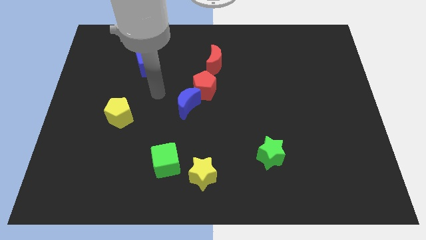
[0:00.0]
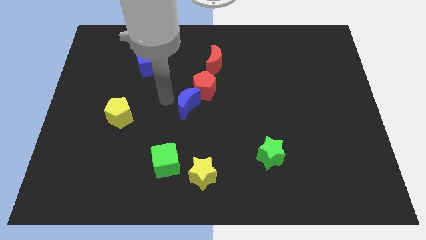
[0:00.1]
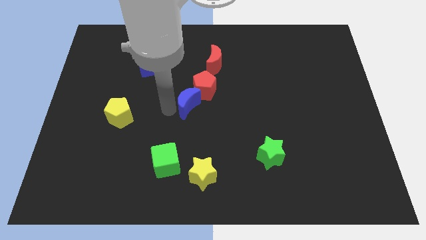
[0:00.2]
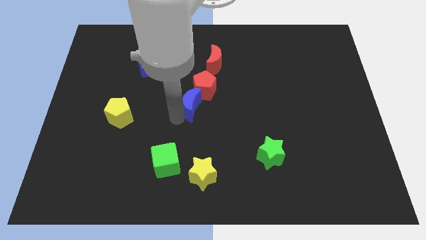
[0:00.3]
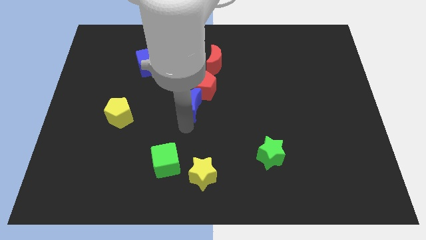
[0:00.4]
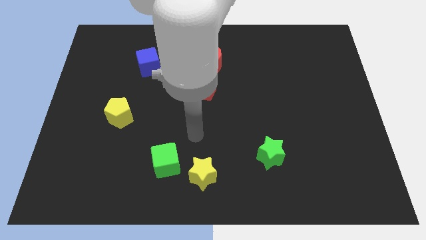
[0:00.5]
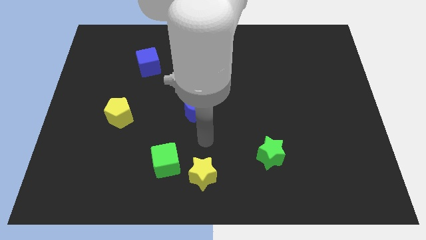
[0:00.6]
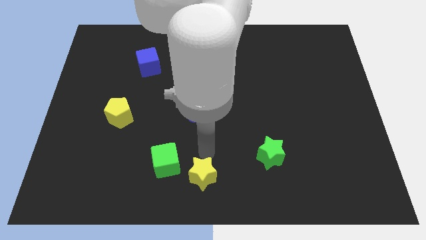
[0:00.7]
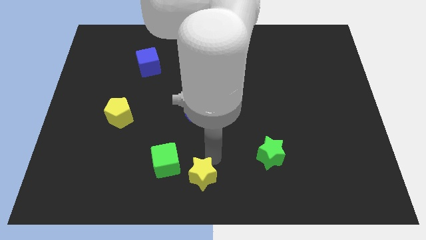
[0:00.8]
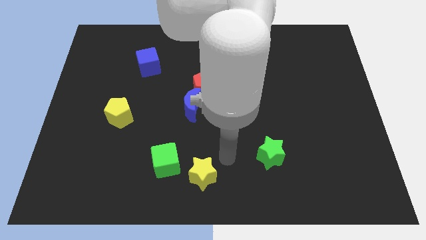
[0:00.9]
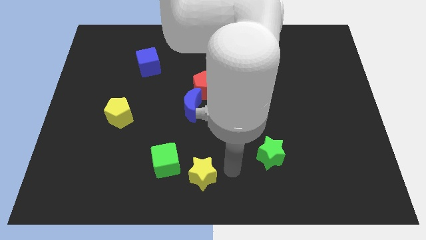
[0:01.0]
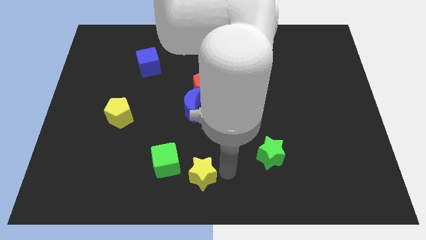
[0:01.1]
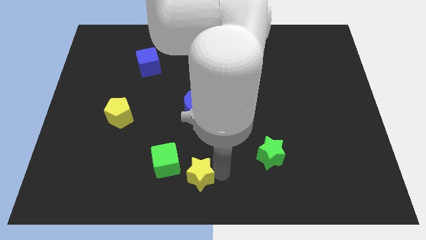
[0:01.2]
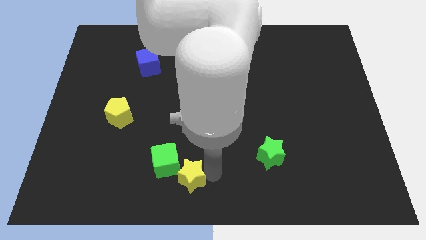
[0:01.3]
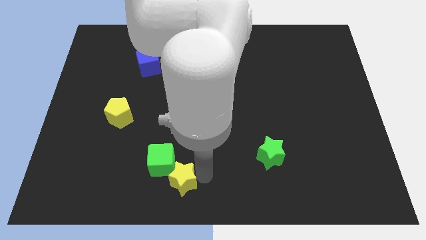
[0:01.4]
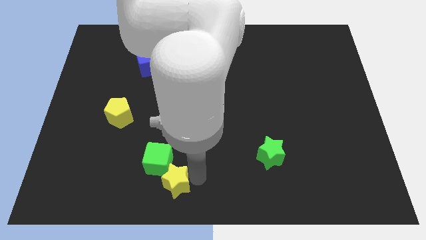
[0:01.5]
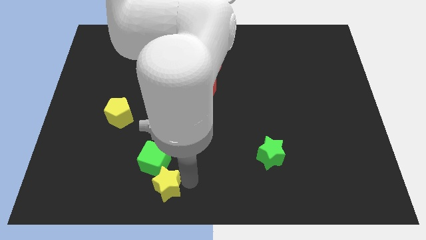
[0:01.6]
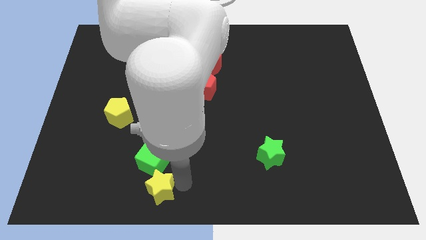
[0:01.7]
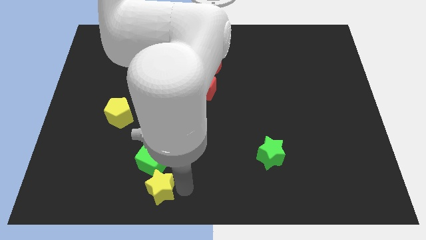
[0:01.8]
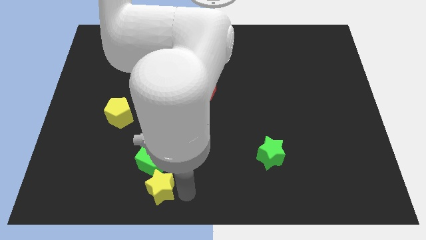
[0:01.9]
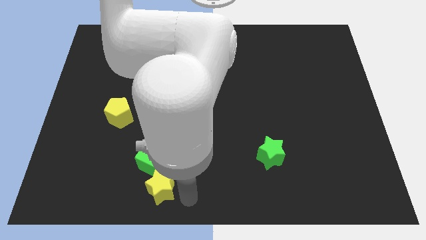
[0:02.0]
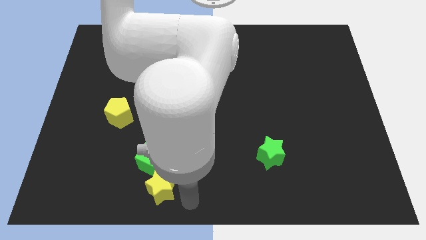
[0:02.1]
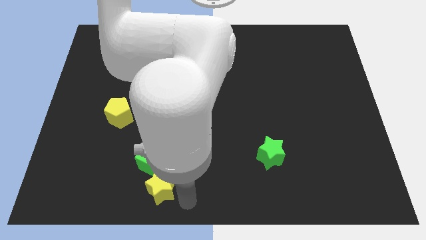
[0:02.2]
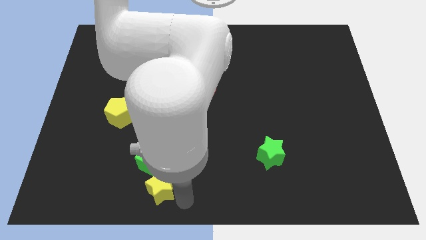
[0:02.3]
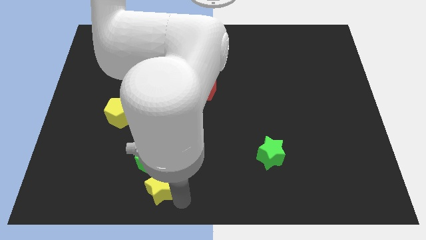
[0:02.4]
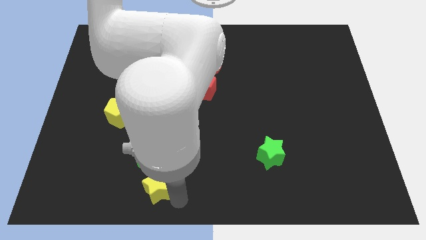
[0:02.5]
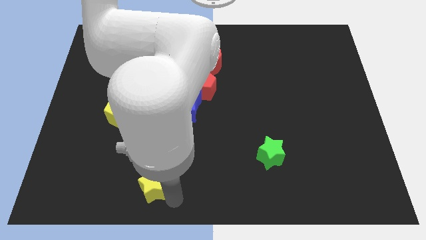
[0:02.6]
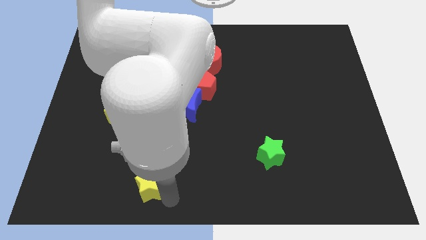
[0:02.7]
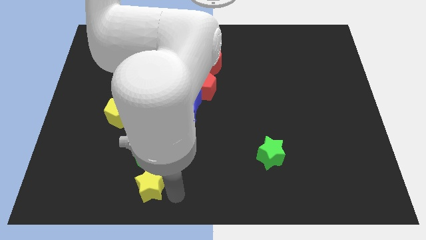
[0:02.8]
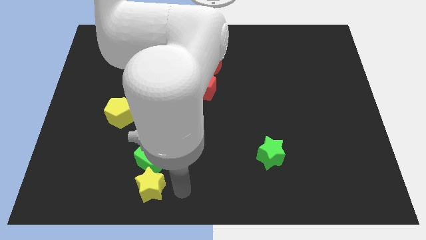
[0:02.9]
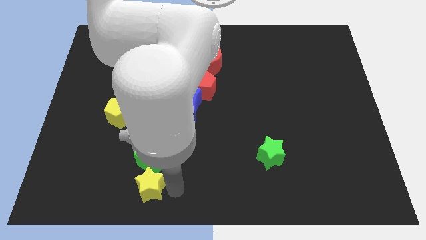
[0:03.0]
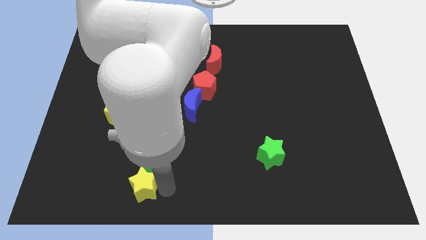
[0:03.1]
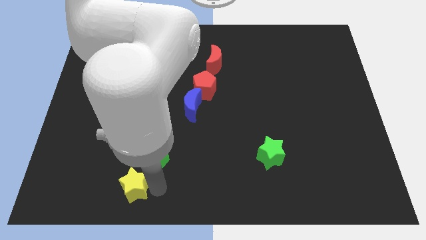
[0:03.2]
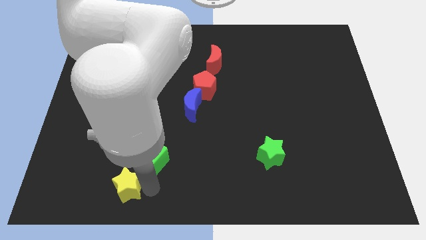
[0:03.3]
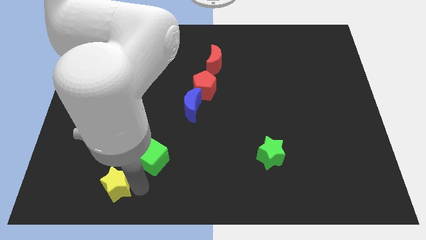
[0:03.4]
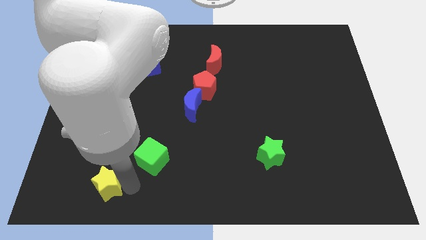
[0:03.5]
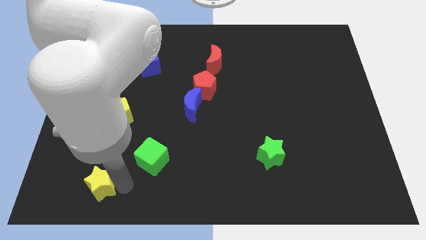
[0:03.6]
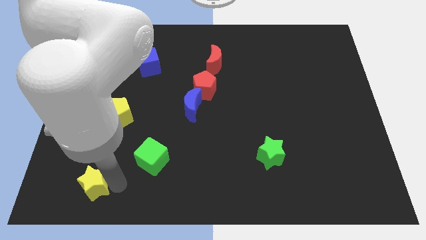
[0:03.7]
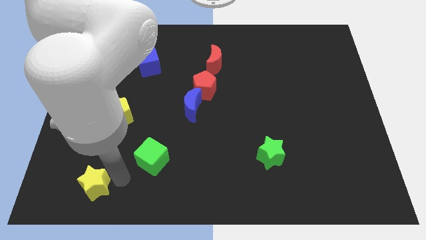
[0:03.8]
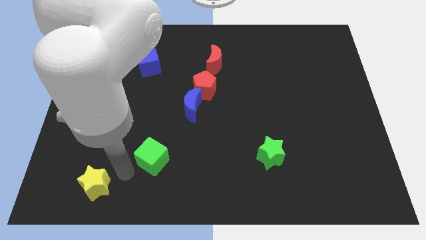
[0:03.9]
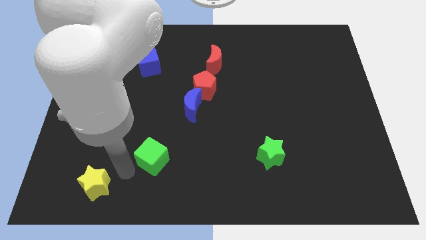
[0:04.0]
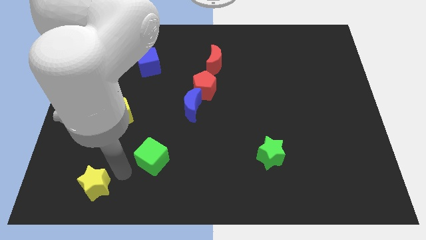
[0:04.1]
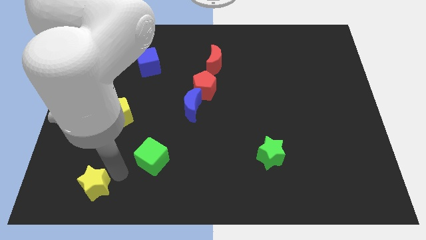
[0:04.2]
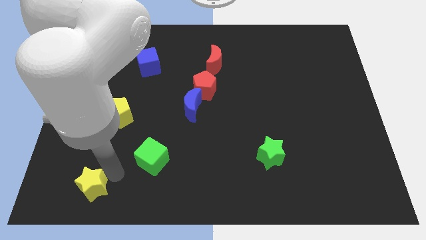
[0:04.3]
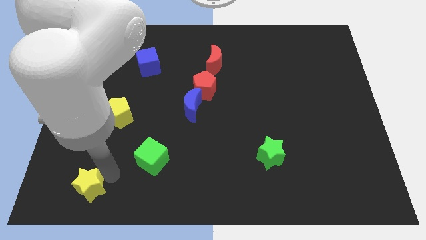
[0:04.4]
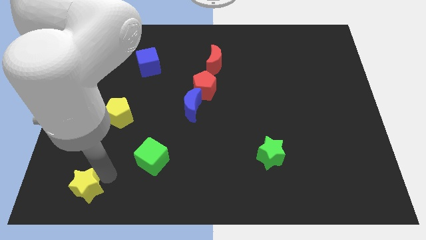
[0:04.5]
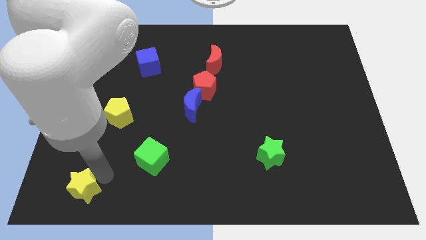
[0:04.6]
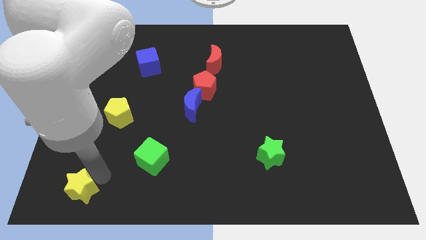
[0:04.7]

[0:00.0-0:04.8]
push the yellow star to the lower left corner

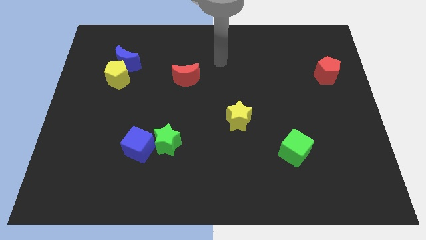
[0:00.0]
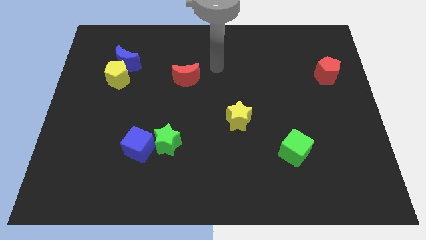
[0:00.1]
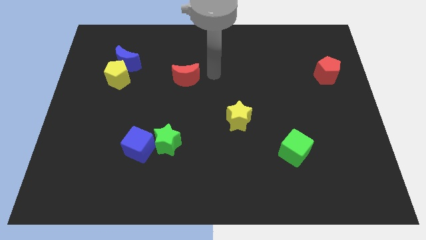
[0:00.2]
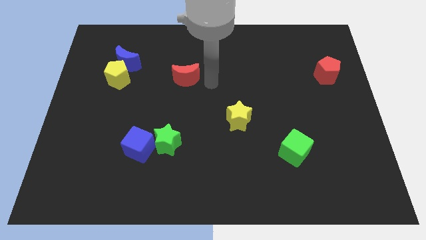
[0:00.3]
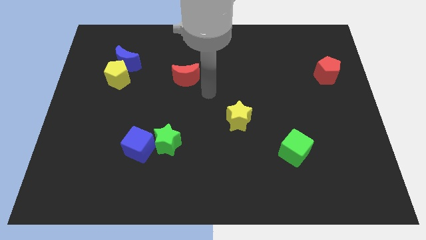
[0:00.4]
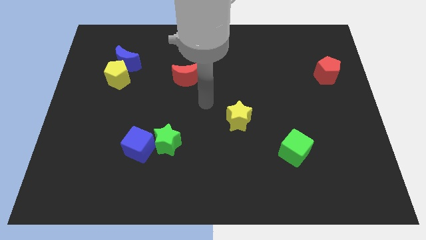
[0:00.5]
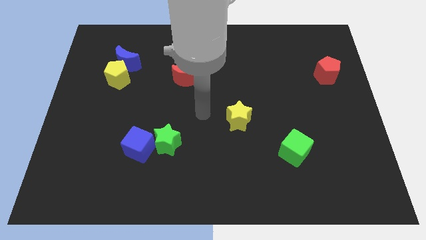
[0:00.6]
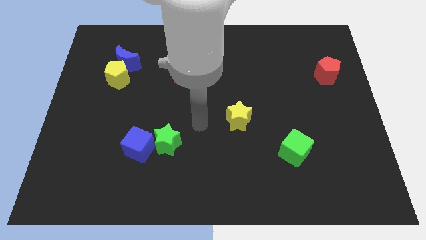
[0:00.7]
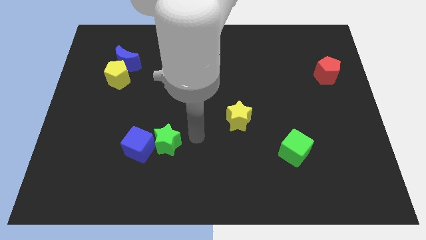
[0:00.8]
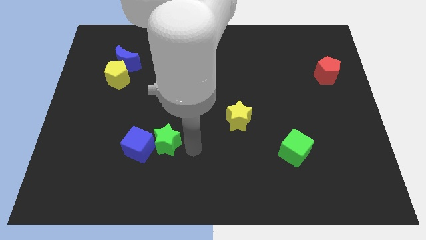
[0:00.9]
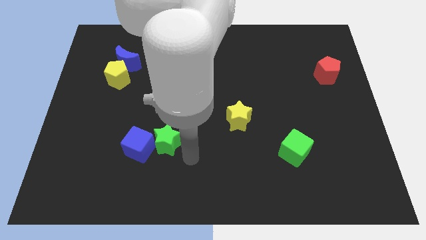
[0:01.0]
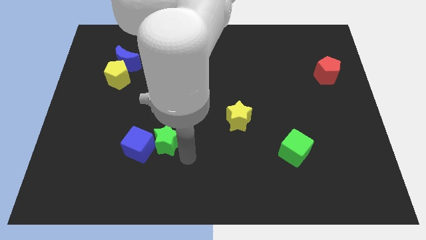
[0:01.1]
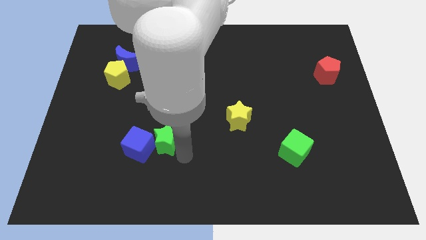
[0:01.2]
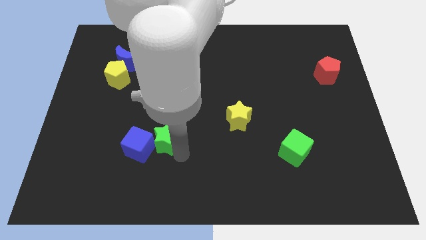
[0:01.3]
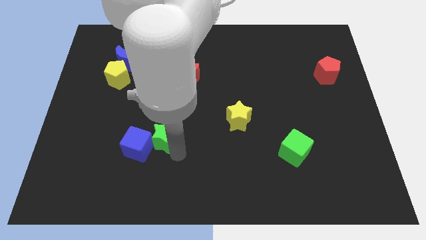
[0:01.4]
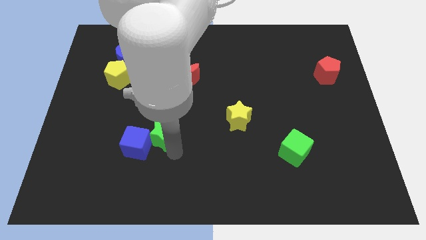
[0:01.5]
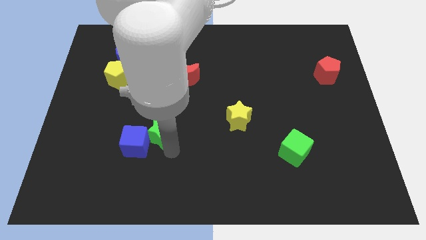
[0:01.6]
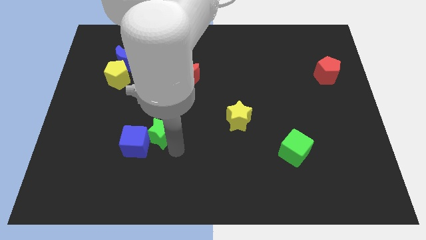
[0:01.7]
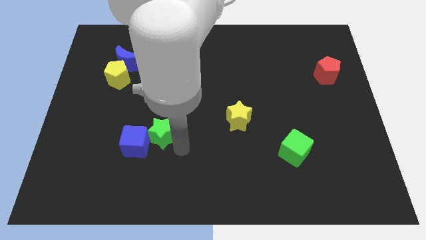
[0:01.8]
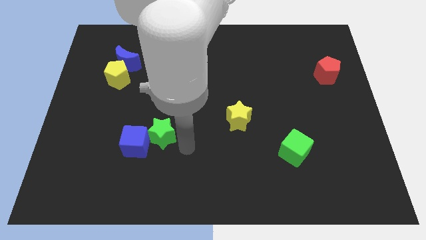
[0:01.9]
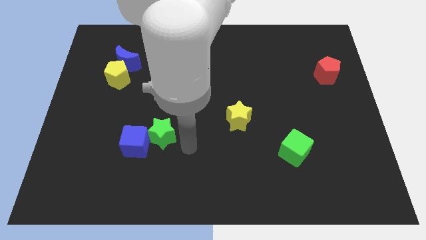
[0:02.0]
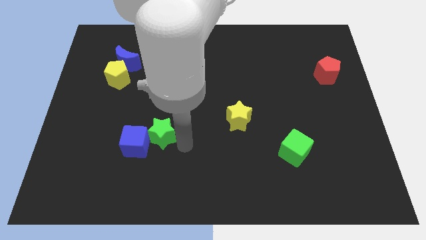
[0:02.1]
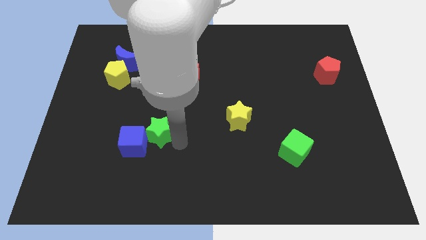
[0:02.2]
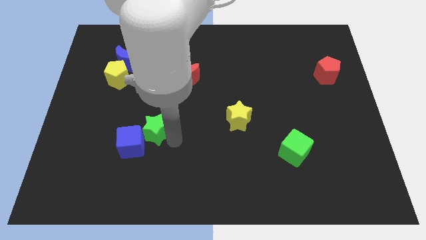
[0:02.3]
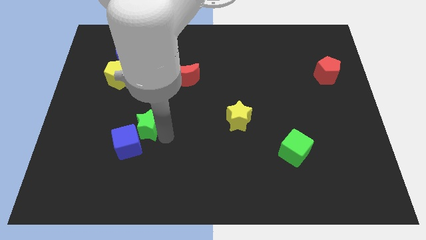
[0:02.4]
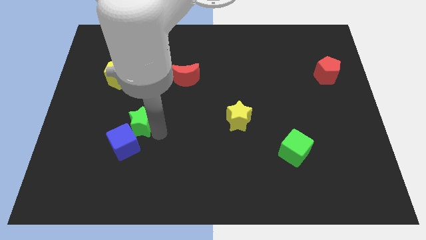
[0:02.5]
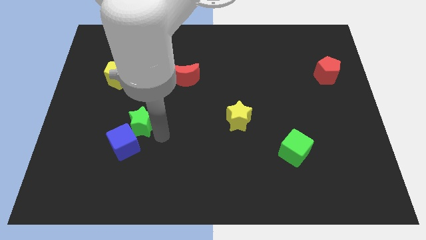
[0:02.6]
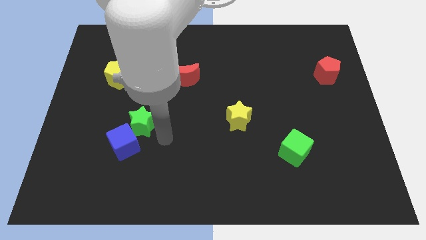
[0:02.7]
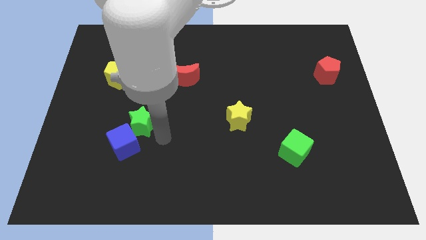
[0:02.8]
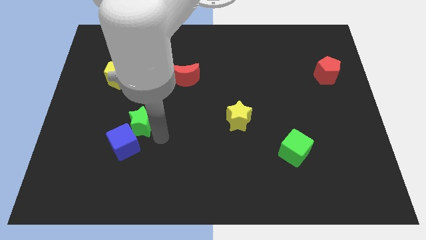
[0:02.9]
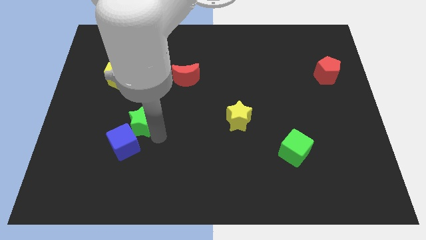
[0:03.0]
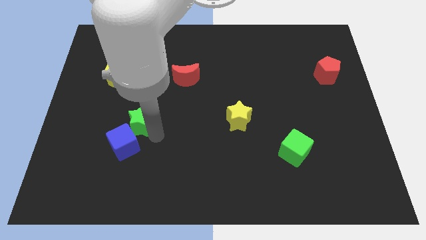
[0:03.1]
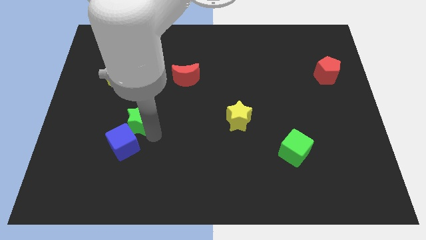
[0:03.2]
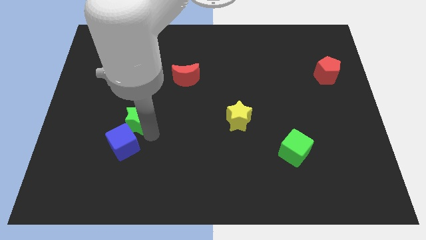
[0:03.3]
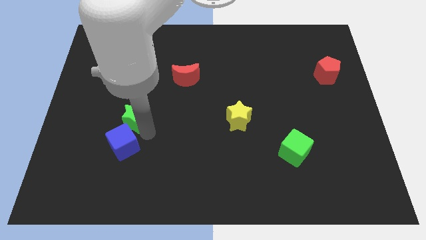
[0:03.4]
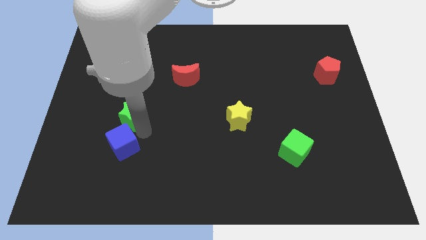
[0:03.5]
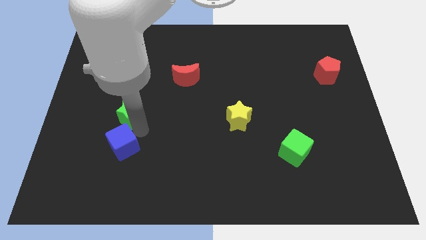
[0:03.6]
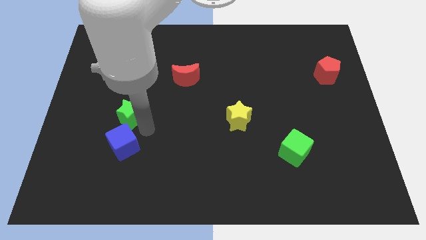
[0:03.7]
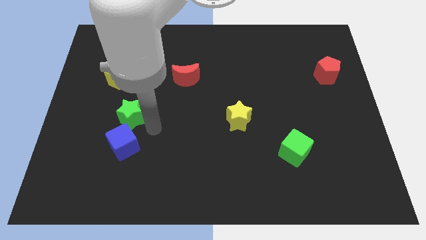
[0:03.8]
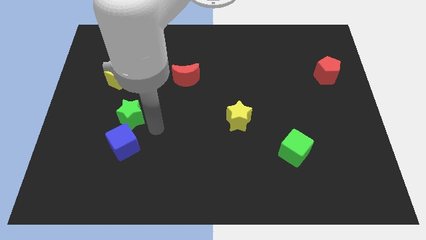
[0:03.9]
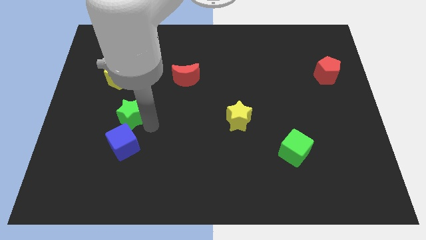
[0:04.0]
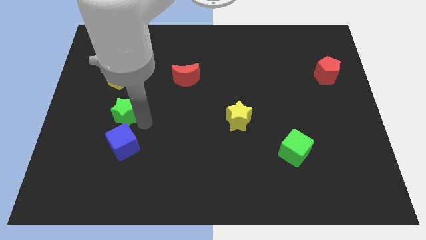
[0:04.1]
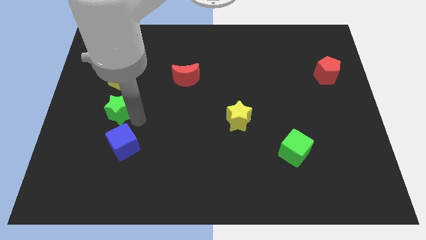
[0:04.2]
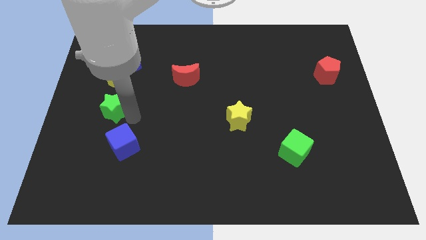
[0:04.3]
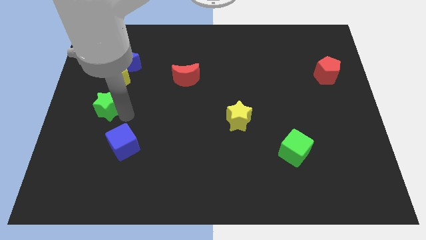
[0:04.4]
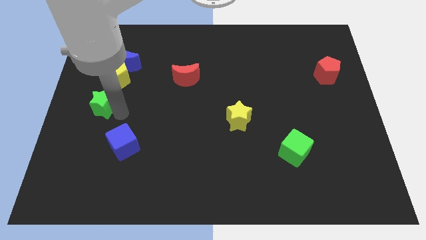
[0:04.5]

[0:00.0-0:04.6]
push the green star to the left side of the board
